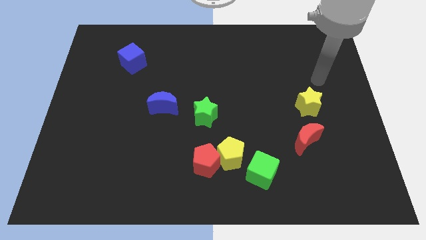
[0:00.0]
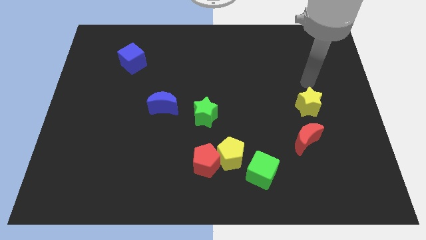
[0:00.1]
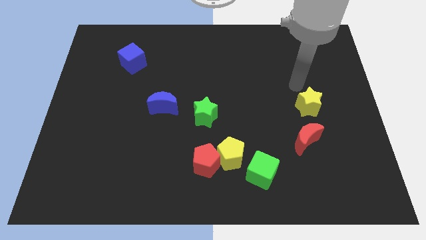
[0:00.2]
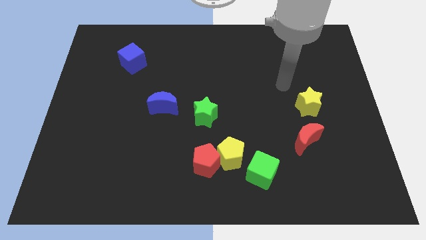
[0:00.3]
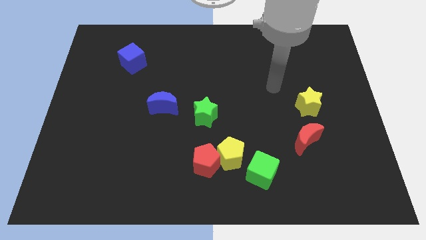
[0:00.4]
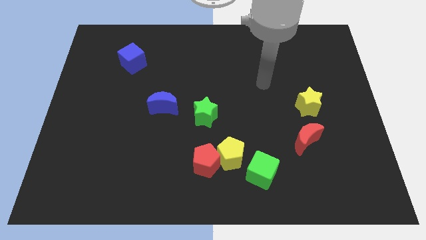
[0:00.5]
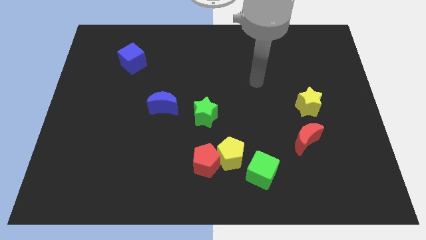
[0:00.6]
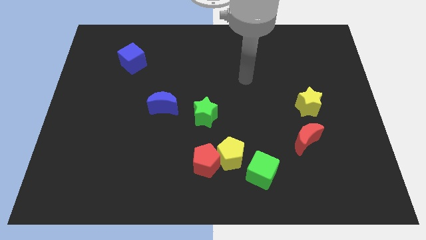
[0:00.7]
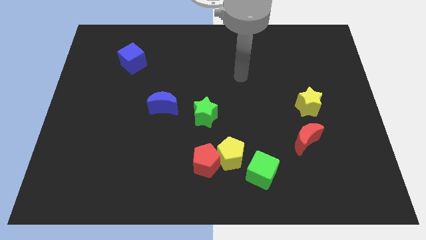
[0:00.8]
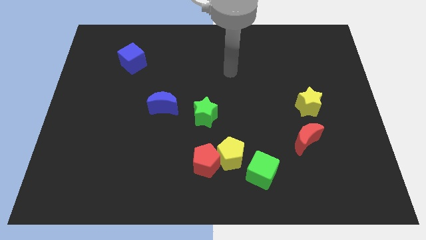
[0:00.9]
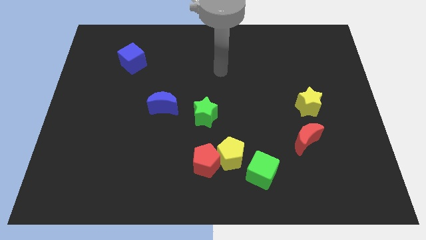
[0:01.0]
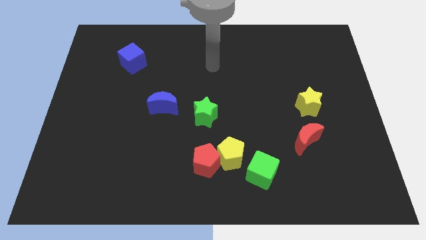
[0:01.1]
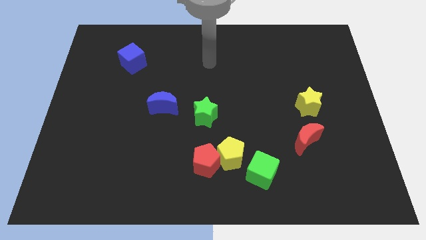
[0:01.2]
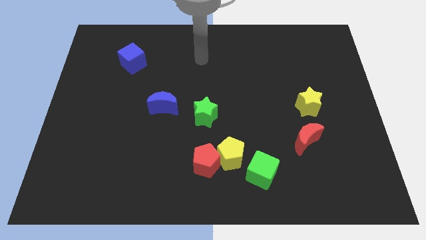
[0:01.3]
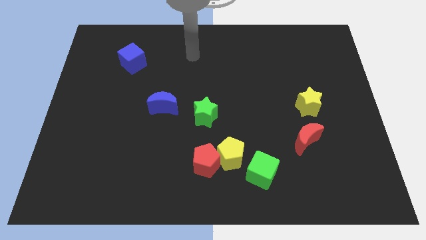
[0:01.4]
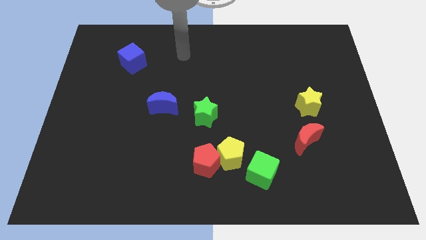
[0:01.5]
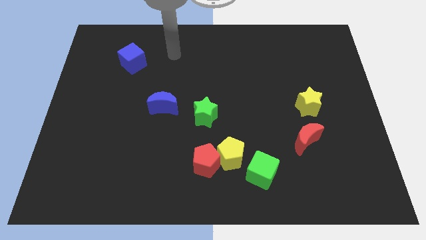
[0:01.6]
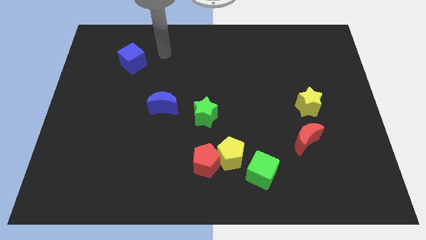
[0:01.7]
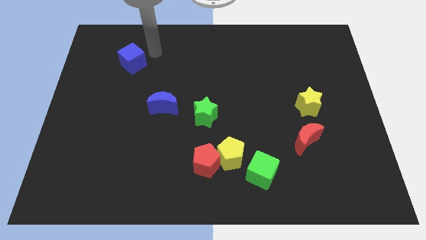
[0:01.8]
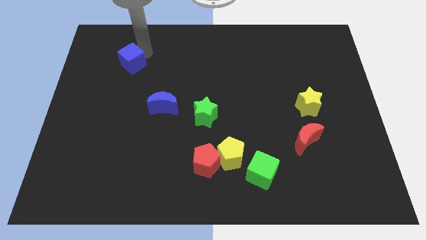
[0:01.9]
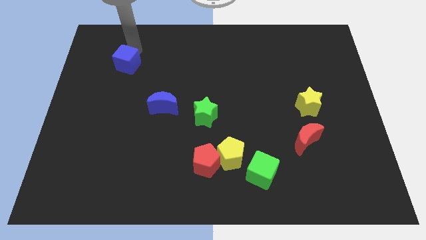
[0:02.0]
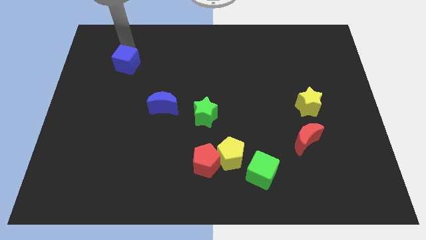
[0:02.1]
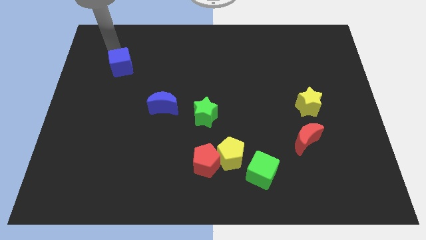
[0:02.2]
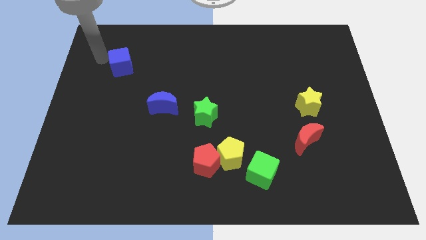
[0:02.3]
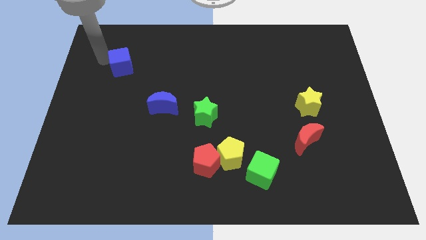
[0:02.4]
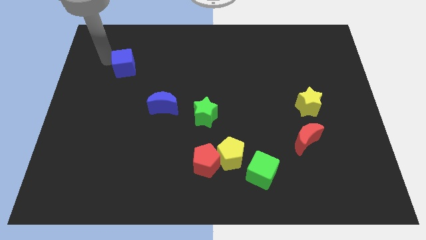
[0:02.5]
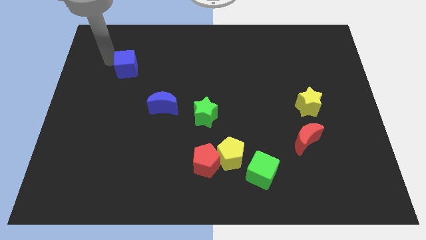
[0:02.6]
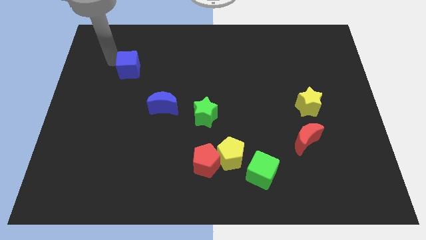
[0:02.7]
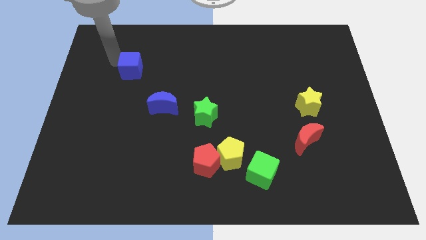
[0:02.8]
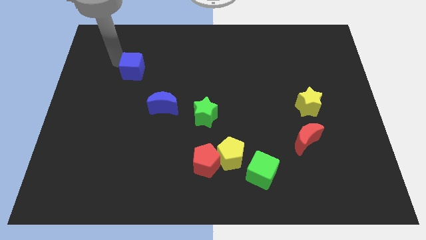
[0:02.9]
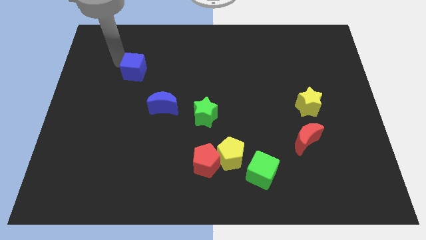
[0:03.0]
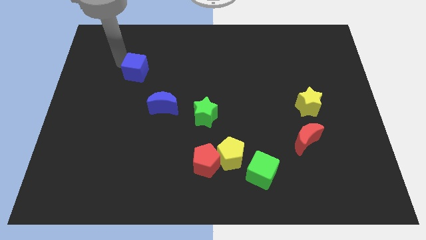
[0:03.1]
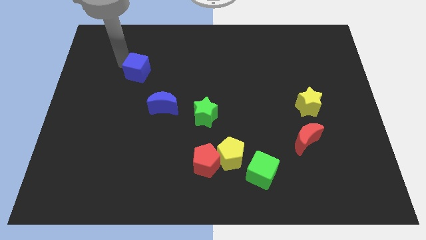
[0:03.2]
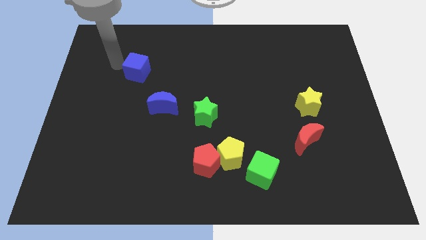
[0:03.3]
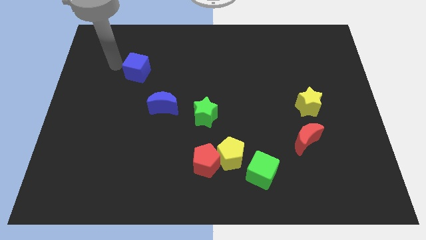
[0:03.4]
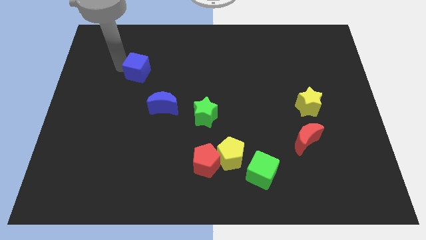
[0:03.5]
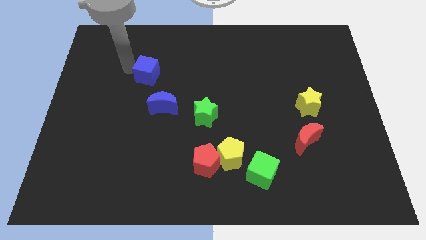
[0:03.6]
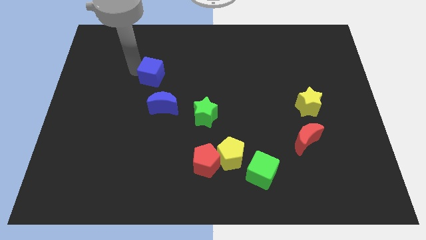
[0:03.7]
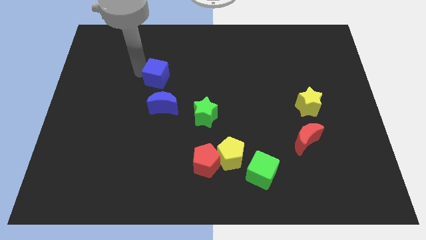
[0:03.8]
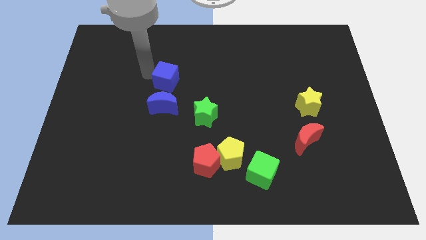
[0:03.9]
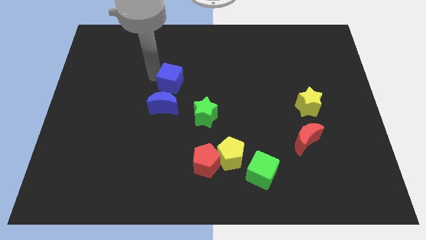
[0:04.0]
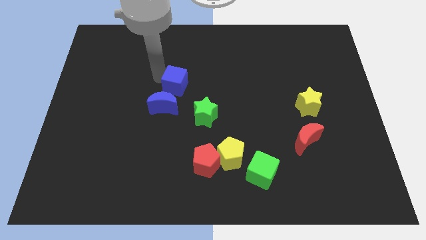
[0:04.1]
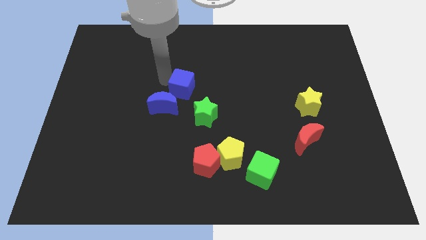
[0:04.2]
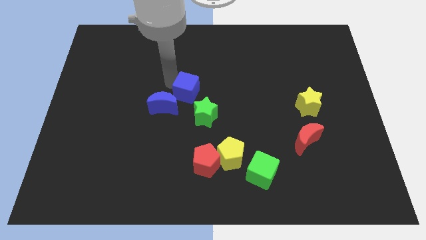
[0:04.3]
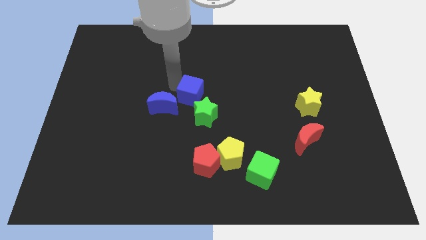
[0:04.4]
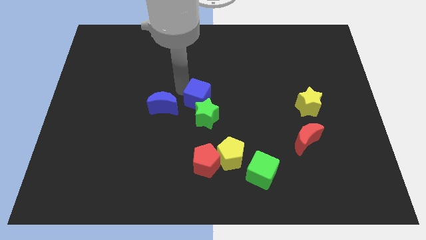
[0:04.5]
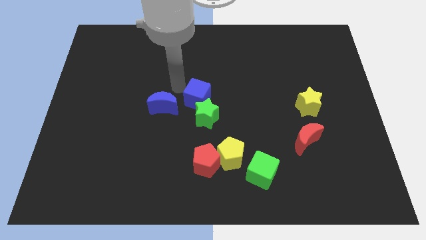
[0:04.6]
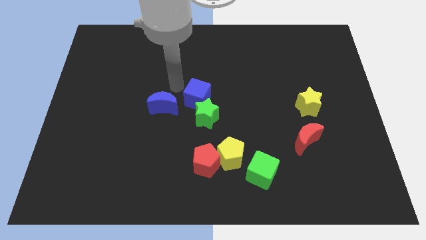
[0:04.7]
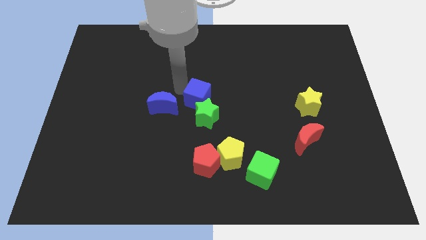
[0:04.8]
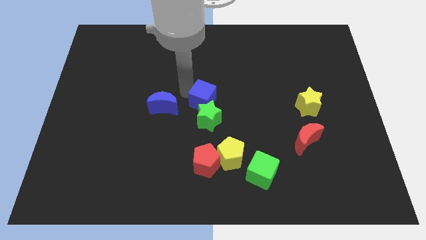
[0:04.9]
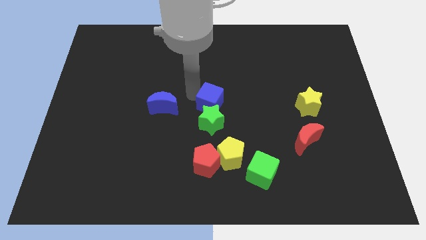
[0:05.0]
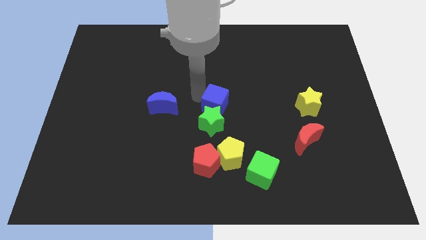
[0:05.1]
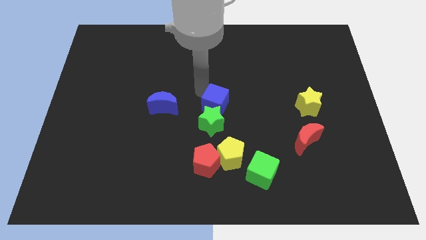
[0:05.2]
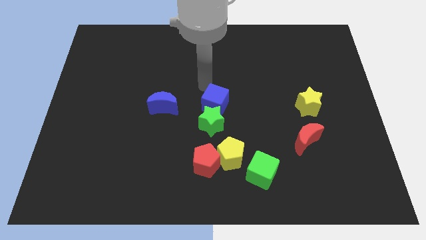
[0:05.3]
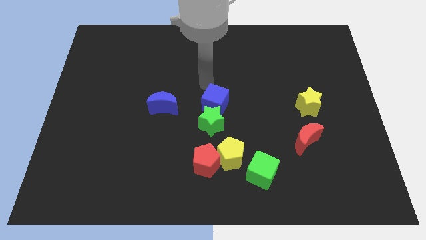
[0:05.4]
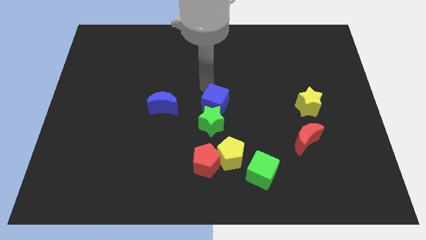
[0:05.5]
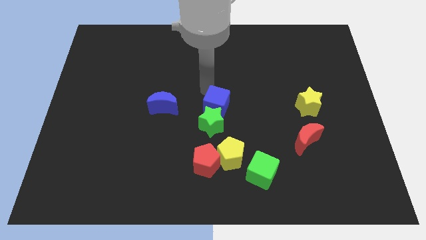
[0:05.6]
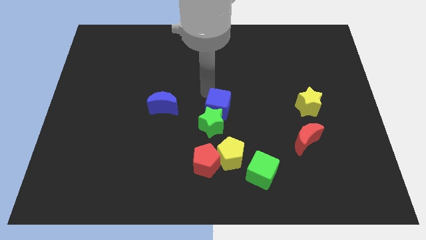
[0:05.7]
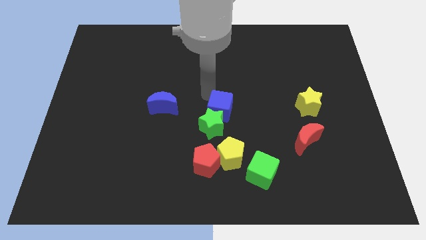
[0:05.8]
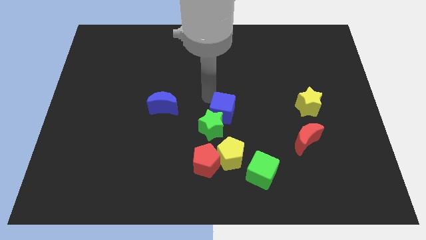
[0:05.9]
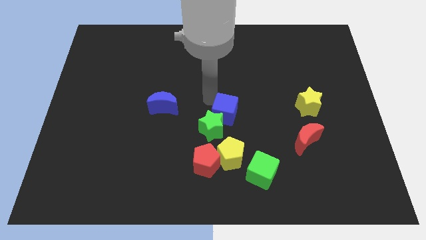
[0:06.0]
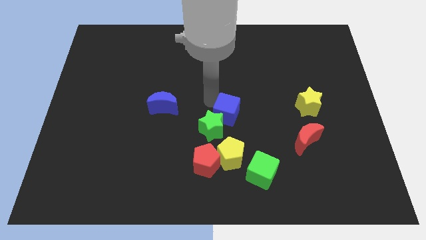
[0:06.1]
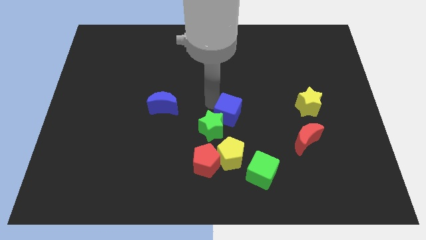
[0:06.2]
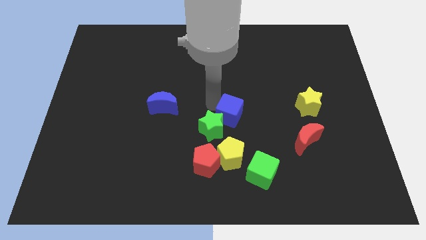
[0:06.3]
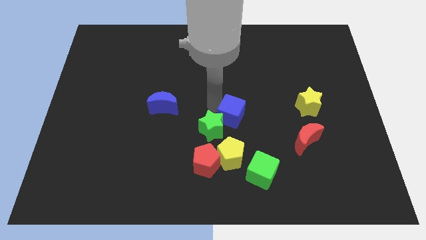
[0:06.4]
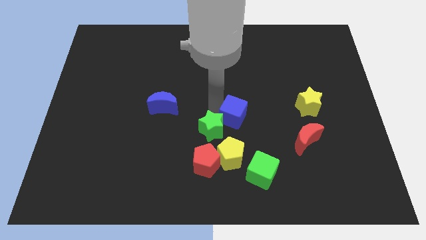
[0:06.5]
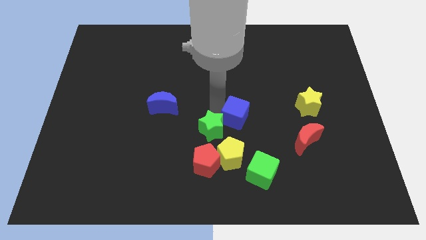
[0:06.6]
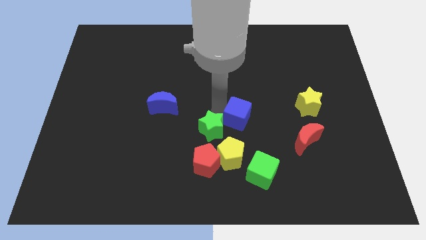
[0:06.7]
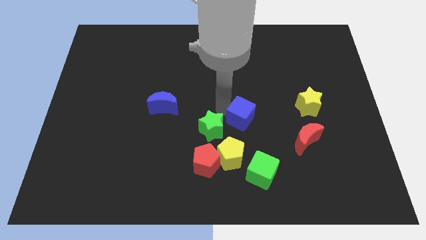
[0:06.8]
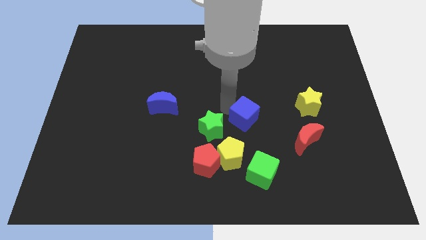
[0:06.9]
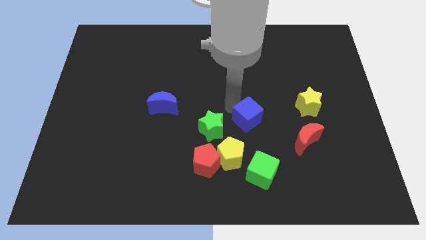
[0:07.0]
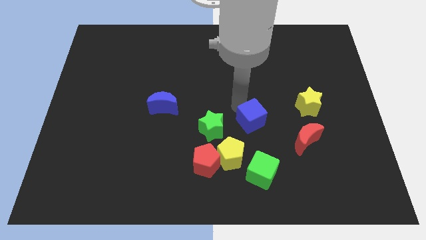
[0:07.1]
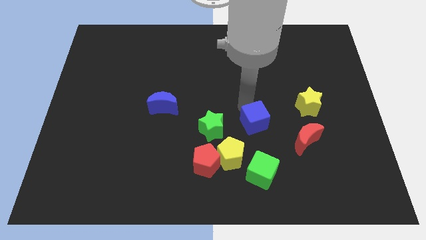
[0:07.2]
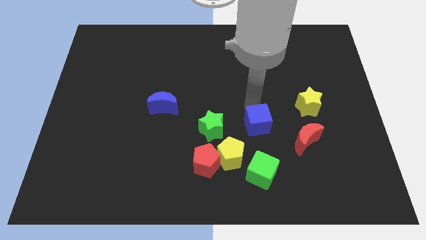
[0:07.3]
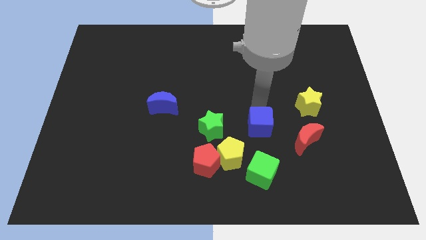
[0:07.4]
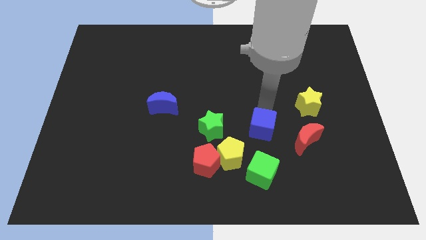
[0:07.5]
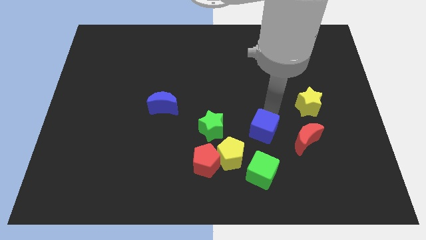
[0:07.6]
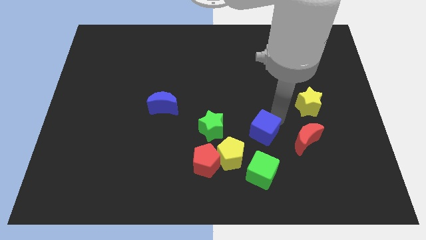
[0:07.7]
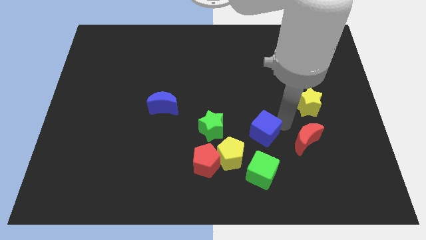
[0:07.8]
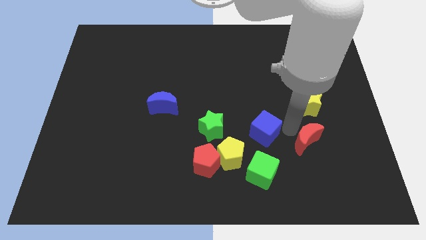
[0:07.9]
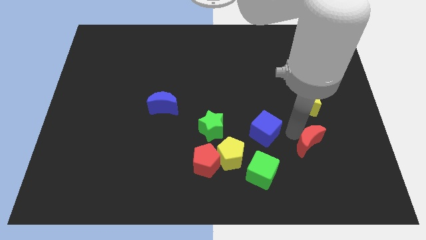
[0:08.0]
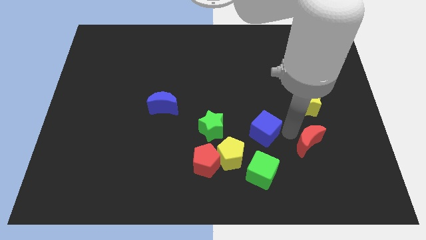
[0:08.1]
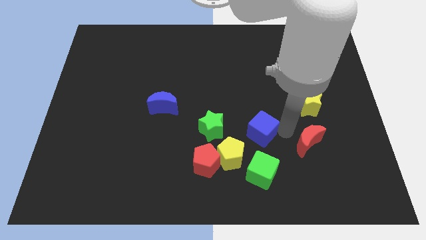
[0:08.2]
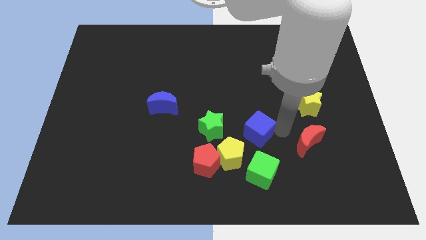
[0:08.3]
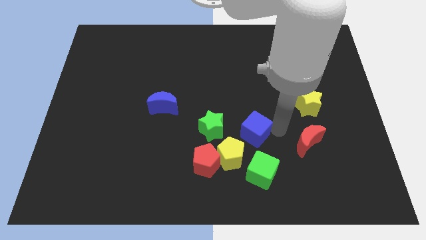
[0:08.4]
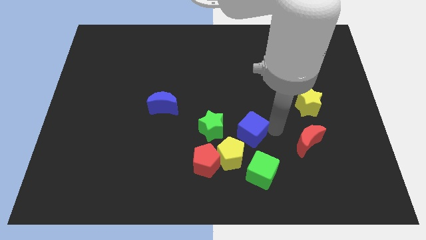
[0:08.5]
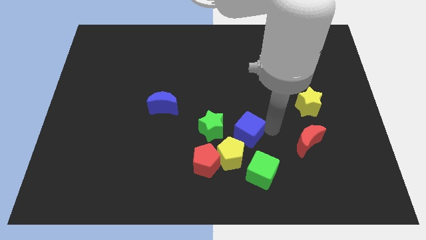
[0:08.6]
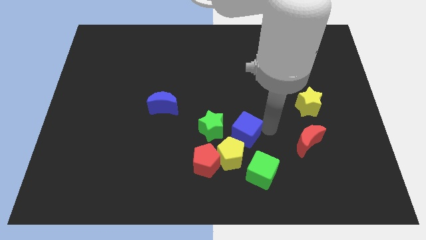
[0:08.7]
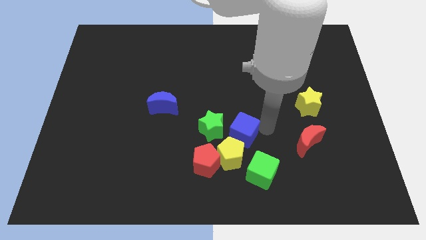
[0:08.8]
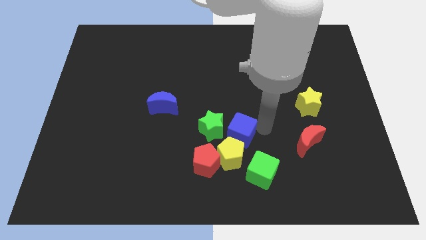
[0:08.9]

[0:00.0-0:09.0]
move the blue cube towards the yellow pentagon
